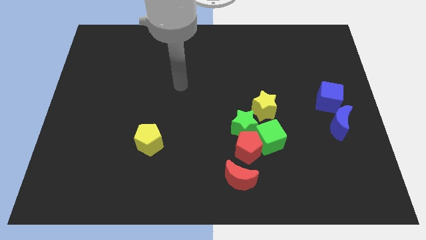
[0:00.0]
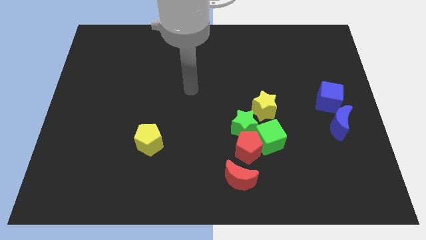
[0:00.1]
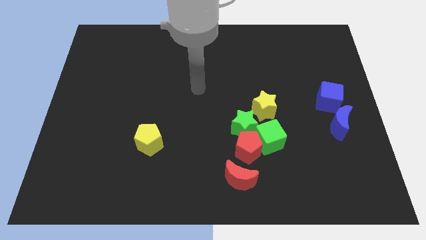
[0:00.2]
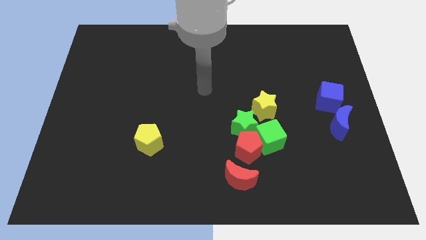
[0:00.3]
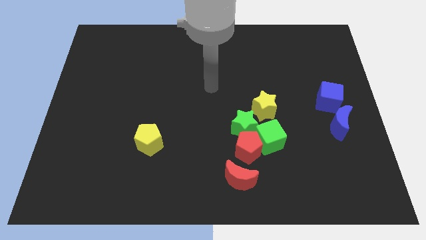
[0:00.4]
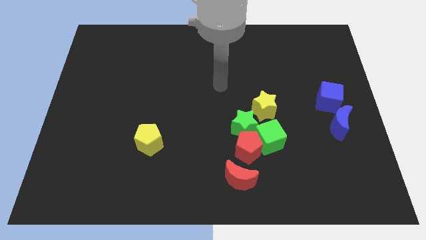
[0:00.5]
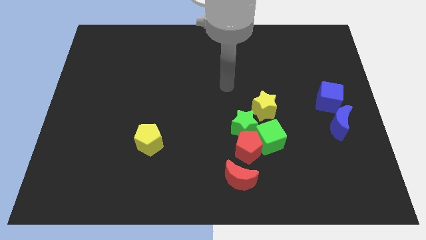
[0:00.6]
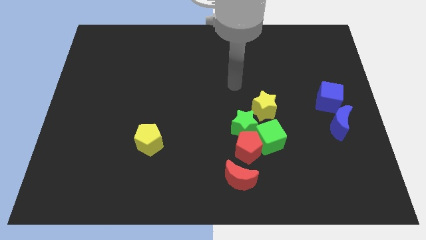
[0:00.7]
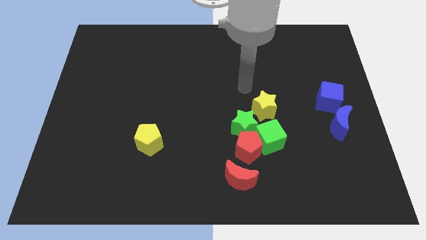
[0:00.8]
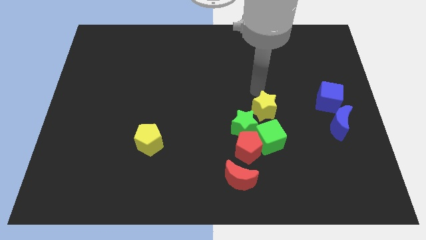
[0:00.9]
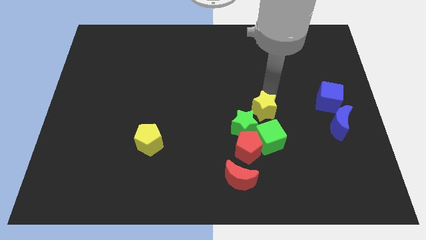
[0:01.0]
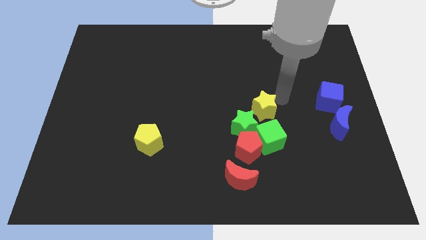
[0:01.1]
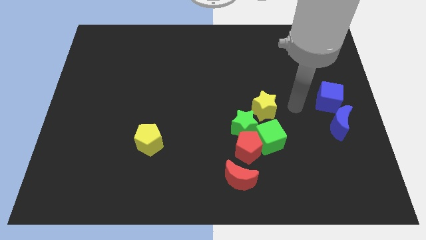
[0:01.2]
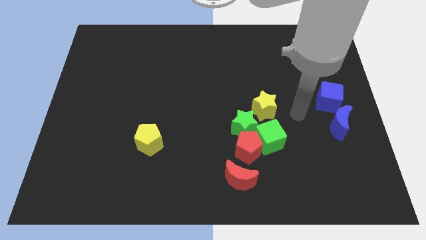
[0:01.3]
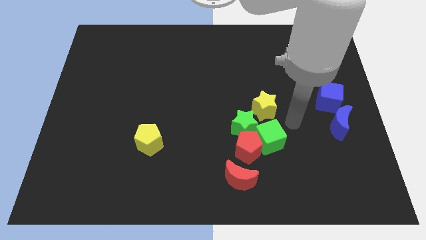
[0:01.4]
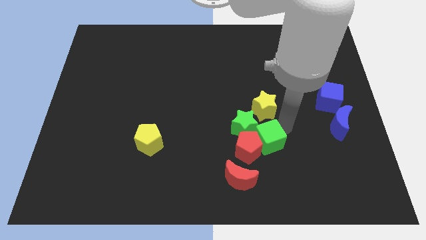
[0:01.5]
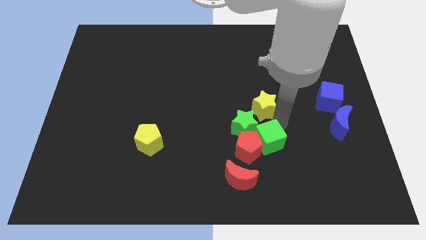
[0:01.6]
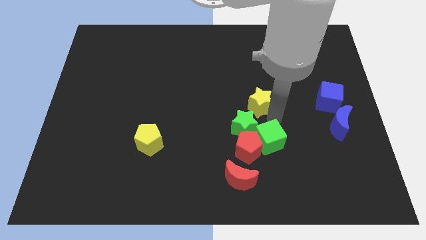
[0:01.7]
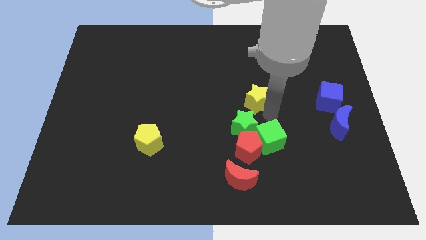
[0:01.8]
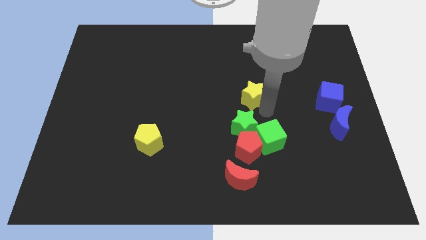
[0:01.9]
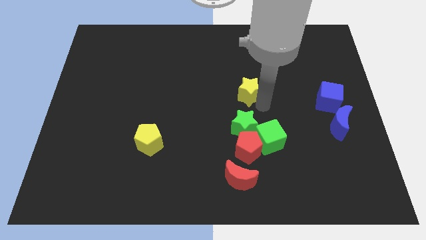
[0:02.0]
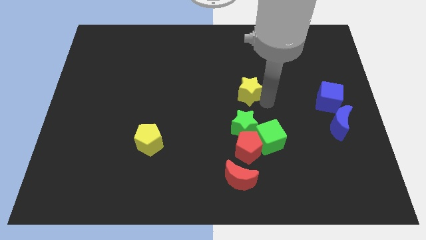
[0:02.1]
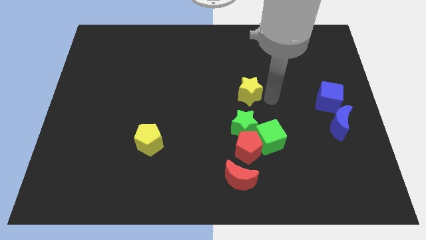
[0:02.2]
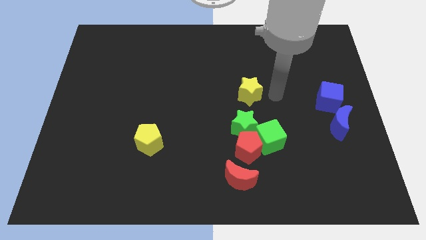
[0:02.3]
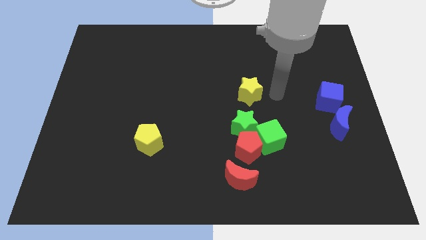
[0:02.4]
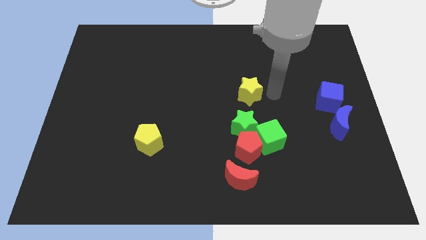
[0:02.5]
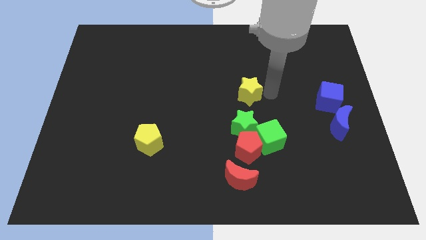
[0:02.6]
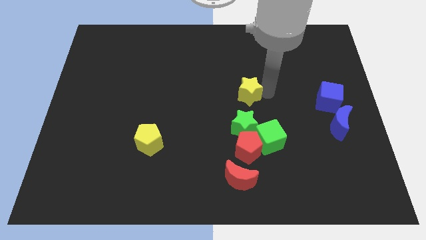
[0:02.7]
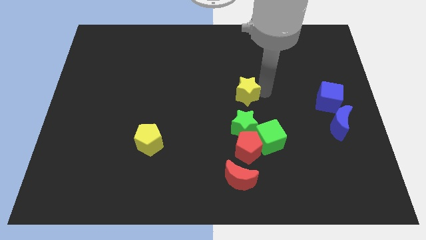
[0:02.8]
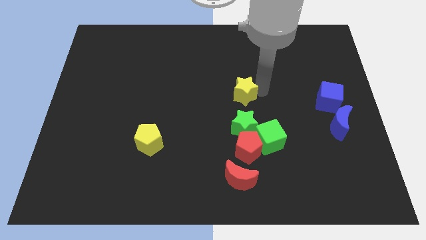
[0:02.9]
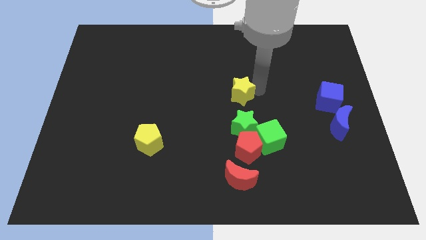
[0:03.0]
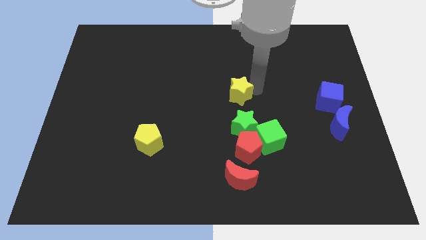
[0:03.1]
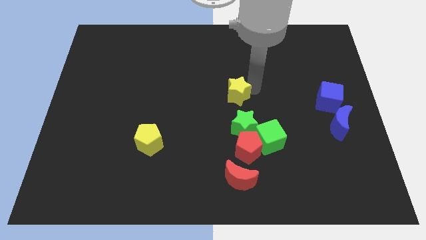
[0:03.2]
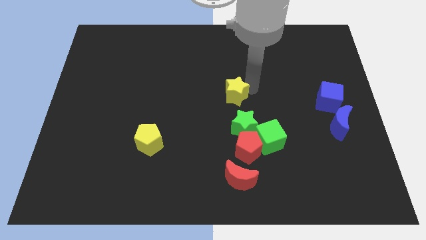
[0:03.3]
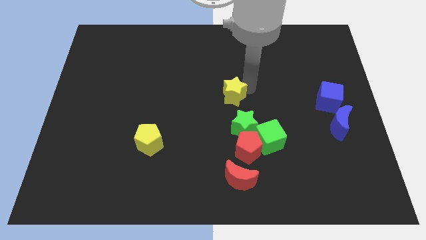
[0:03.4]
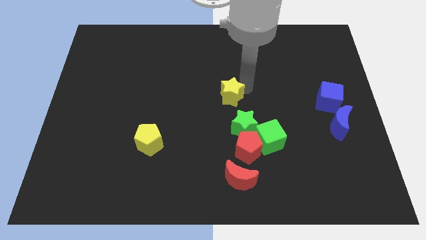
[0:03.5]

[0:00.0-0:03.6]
slightly push the yellow star left

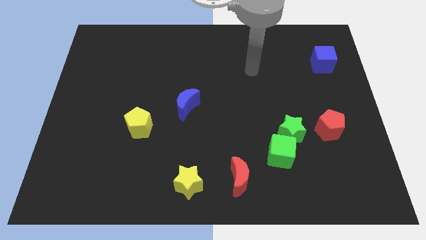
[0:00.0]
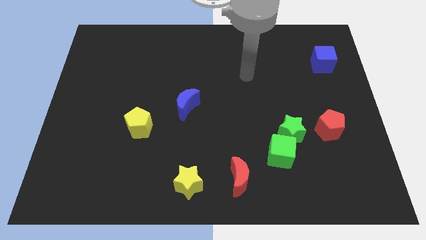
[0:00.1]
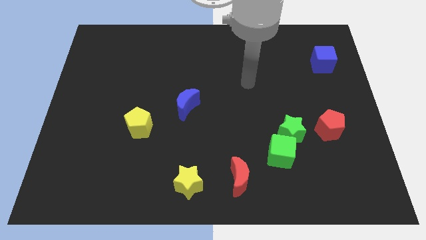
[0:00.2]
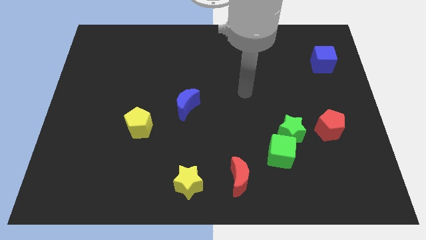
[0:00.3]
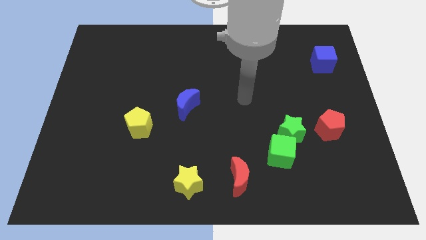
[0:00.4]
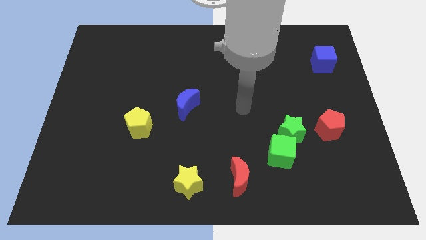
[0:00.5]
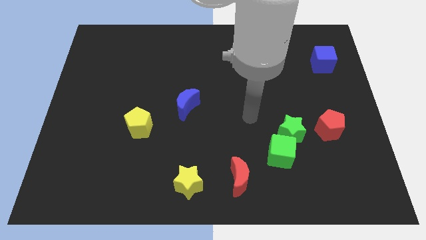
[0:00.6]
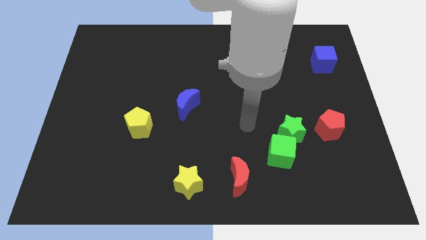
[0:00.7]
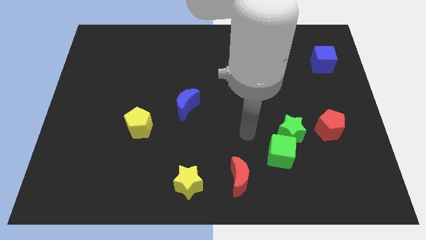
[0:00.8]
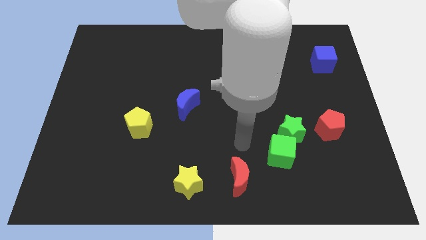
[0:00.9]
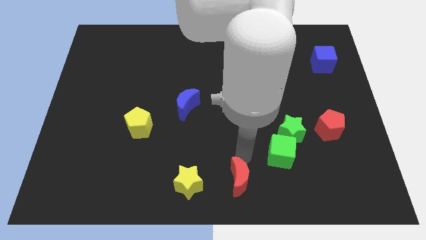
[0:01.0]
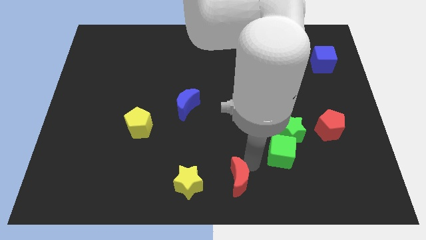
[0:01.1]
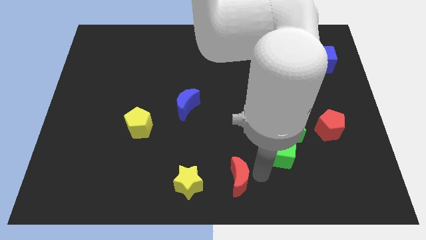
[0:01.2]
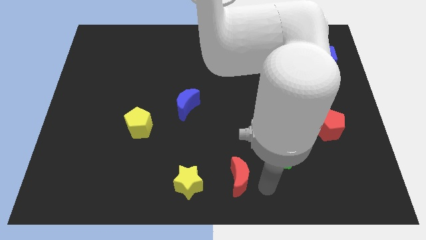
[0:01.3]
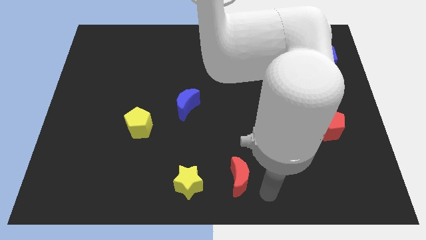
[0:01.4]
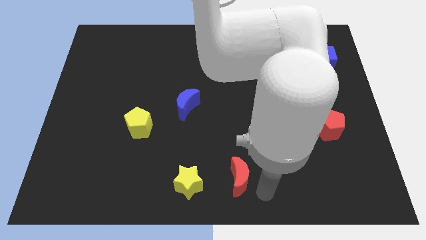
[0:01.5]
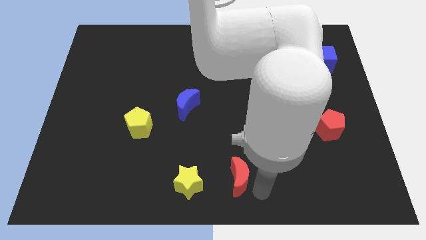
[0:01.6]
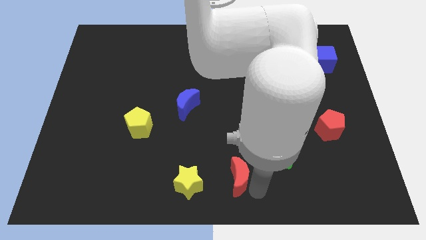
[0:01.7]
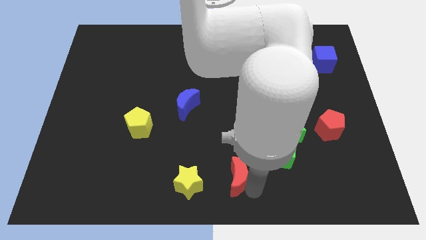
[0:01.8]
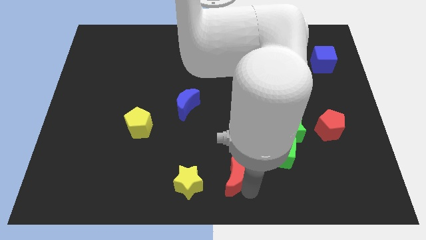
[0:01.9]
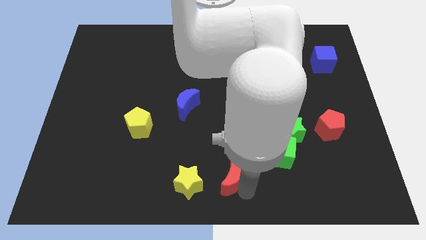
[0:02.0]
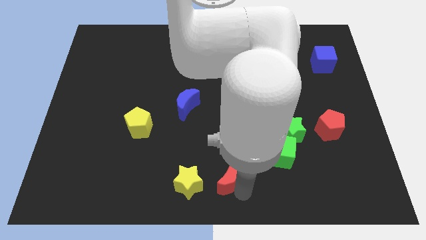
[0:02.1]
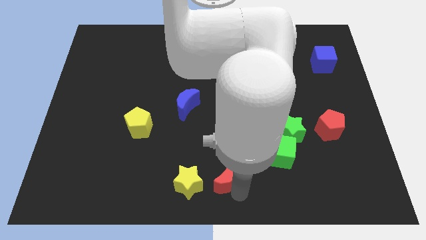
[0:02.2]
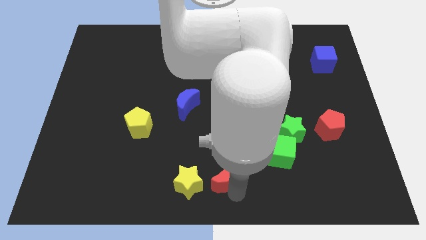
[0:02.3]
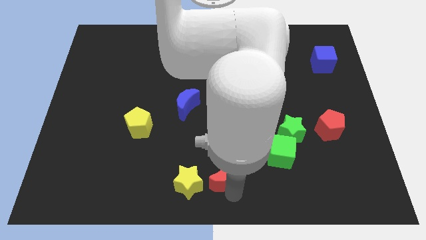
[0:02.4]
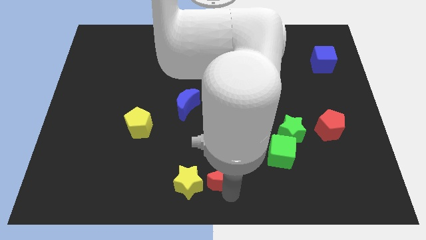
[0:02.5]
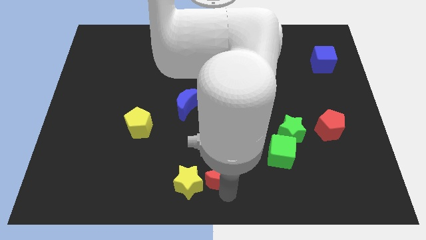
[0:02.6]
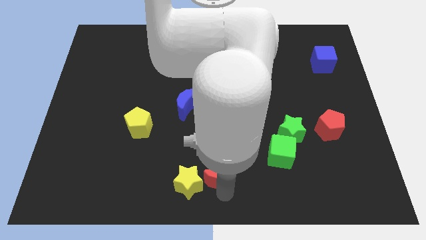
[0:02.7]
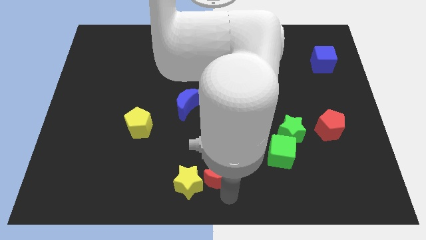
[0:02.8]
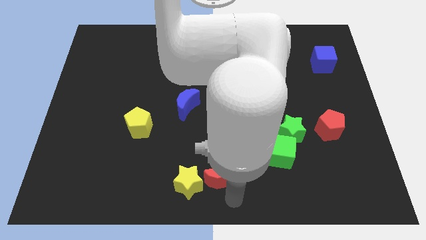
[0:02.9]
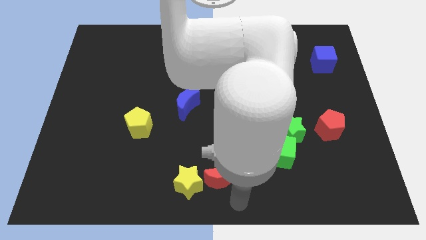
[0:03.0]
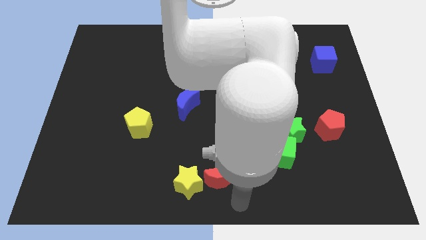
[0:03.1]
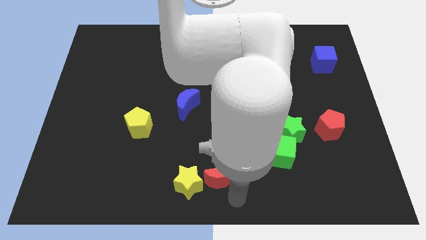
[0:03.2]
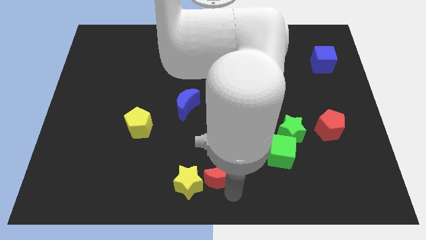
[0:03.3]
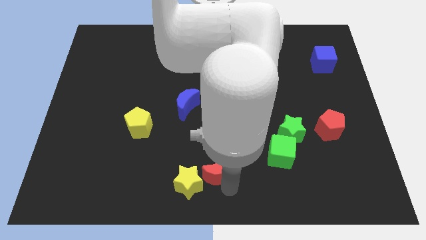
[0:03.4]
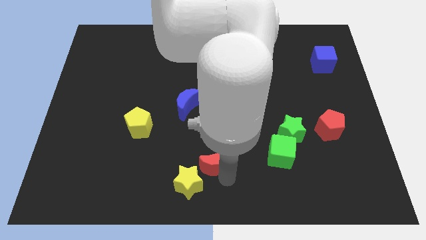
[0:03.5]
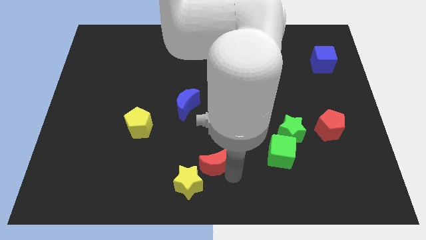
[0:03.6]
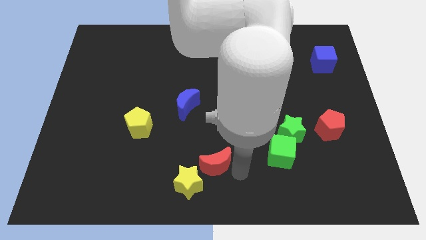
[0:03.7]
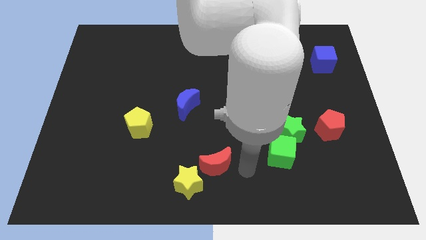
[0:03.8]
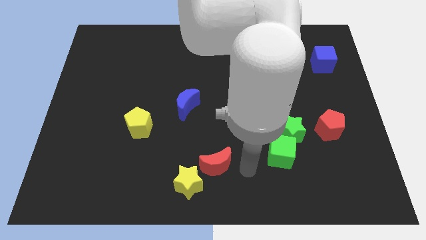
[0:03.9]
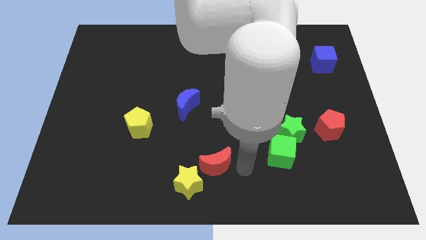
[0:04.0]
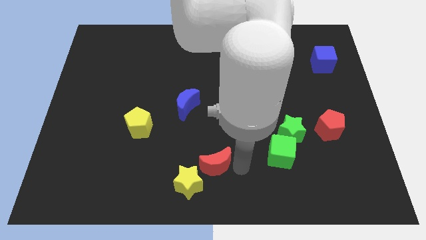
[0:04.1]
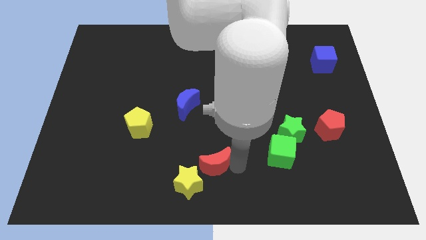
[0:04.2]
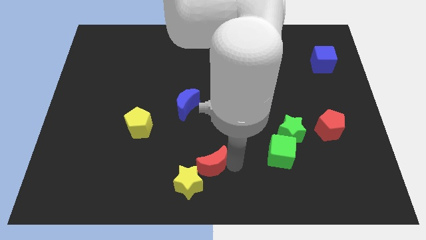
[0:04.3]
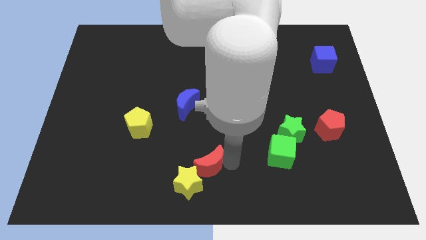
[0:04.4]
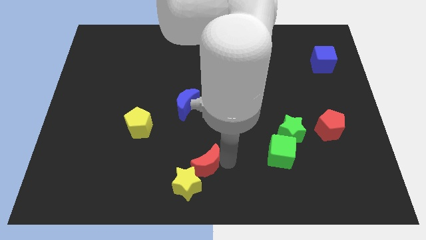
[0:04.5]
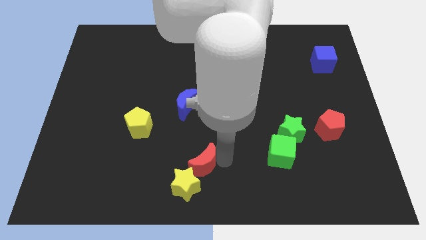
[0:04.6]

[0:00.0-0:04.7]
move the red moon to the left a little bit
